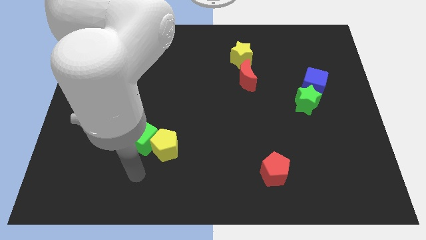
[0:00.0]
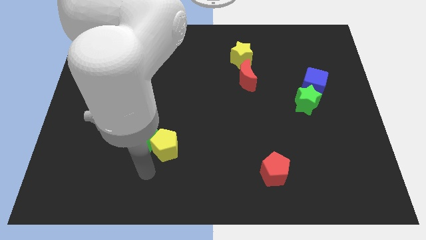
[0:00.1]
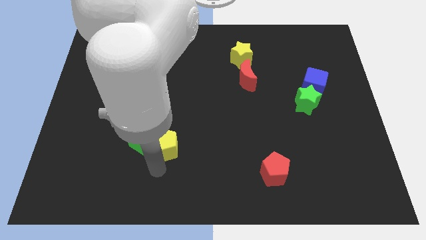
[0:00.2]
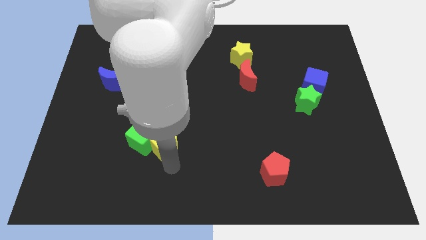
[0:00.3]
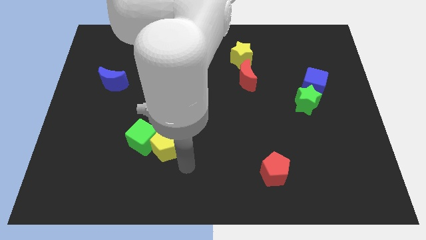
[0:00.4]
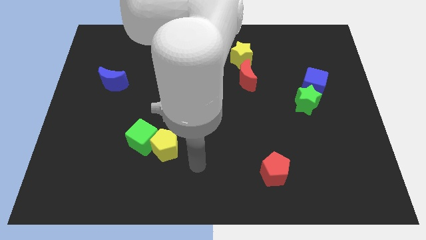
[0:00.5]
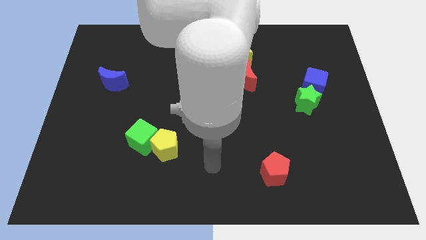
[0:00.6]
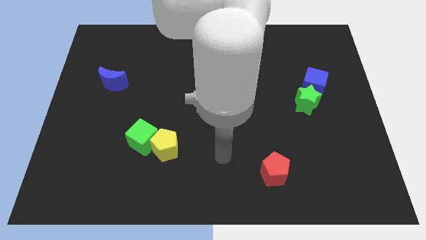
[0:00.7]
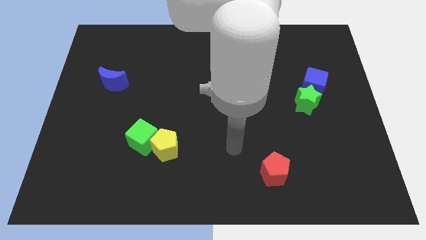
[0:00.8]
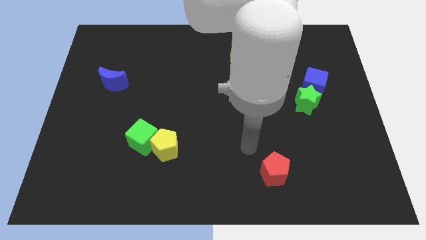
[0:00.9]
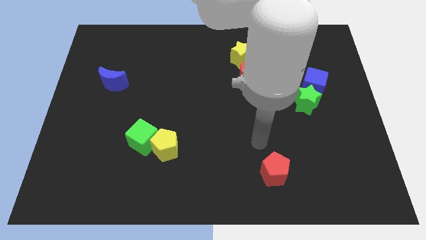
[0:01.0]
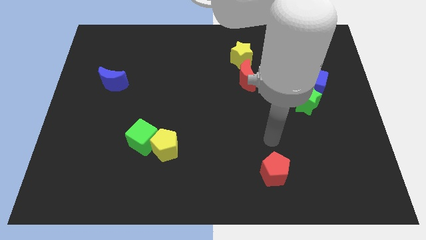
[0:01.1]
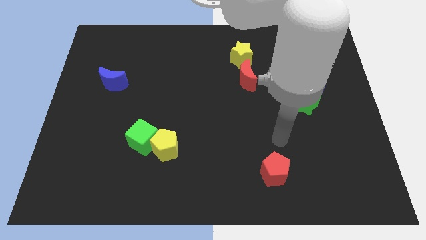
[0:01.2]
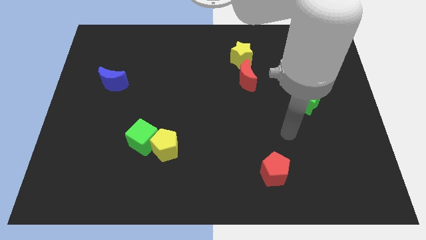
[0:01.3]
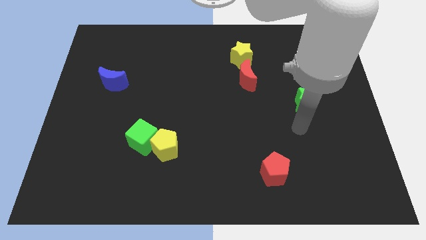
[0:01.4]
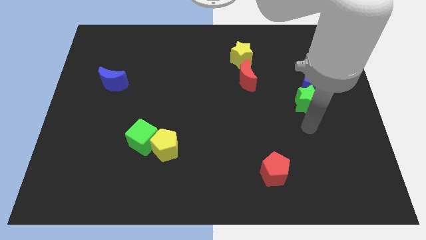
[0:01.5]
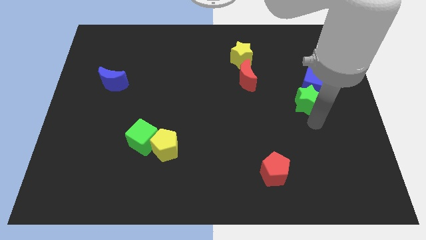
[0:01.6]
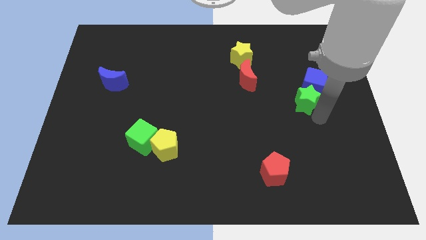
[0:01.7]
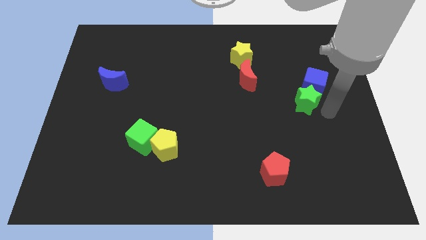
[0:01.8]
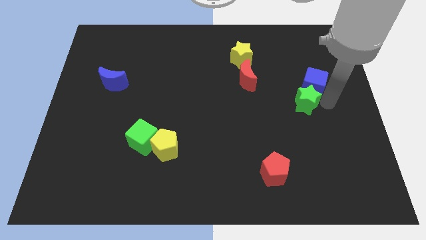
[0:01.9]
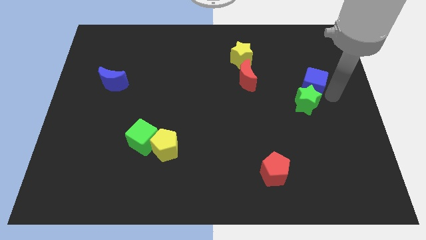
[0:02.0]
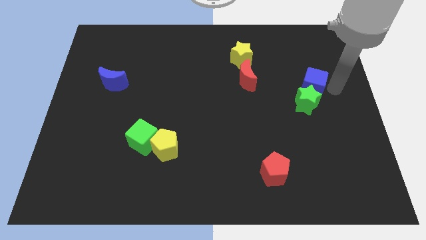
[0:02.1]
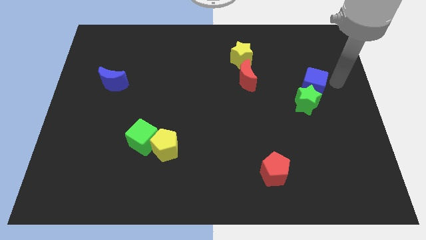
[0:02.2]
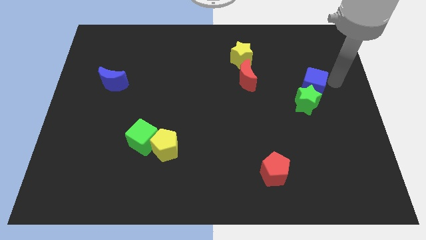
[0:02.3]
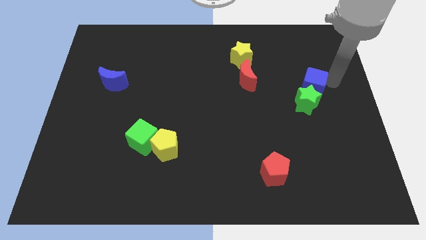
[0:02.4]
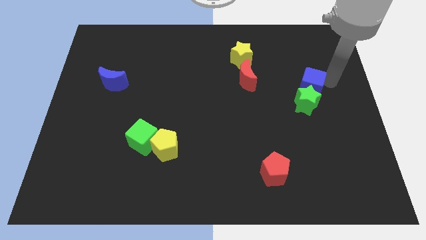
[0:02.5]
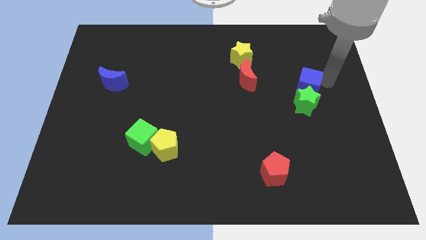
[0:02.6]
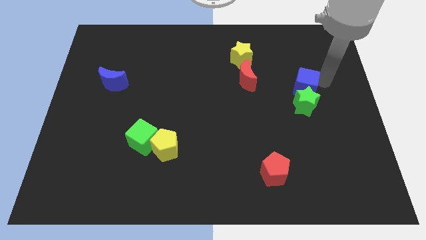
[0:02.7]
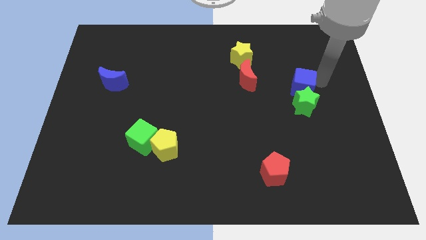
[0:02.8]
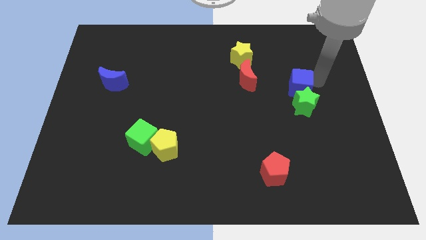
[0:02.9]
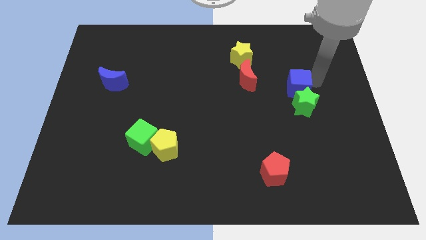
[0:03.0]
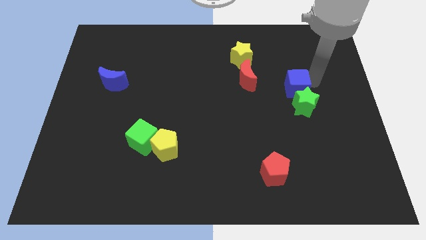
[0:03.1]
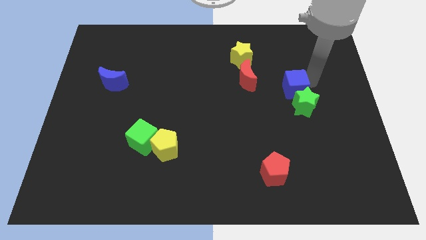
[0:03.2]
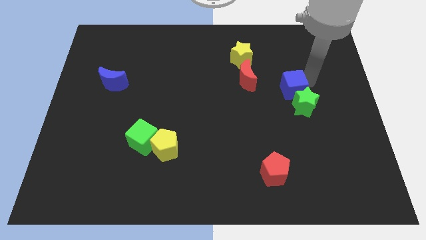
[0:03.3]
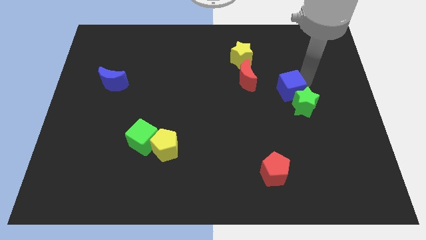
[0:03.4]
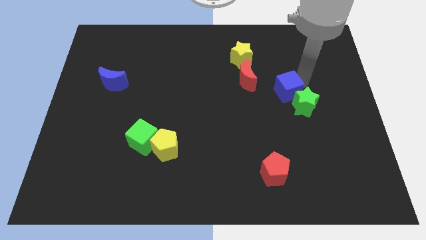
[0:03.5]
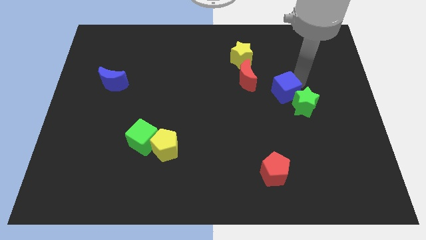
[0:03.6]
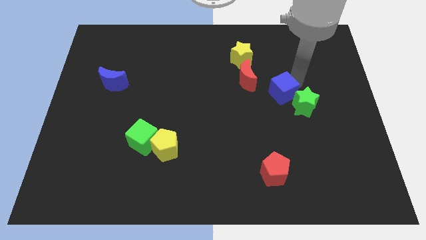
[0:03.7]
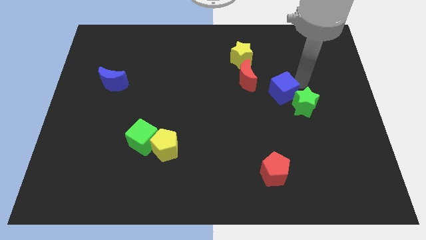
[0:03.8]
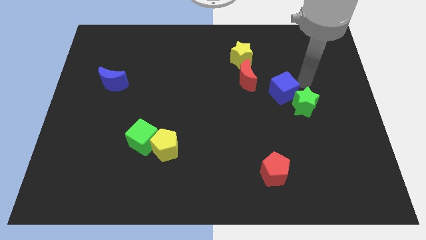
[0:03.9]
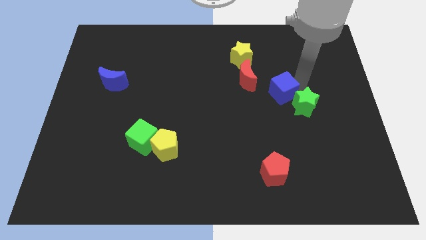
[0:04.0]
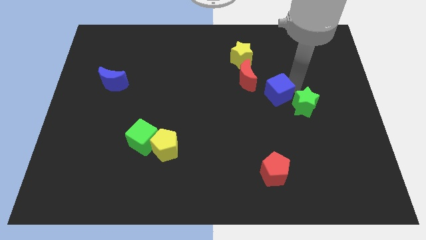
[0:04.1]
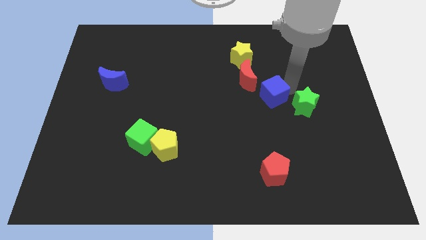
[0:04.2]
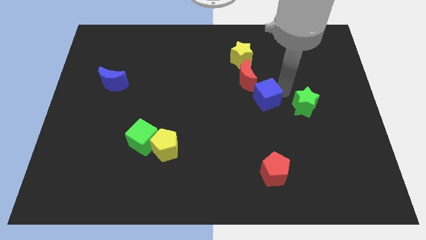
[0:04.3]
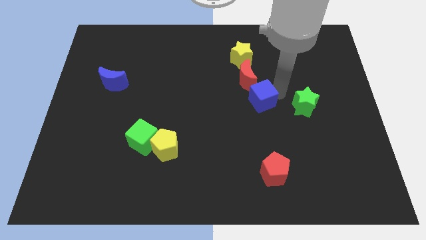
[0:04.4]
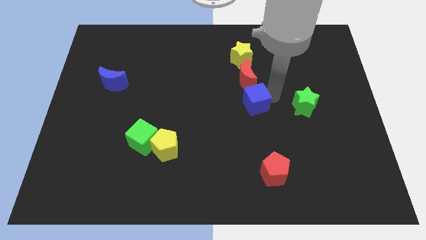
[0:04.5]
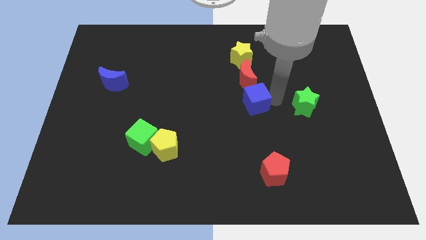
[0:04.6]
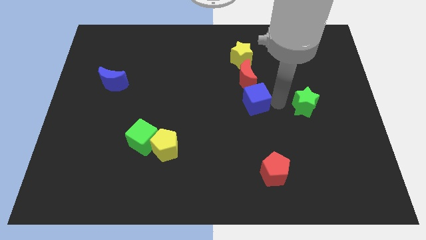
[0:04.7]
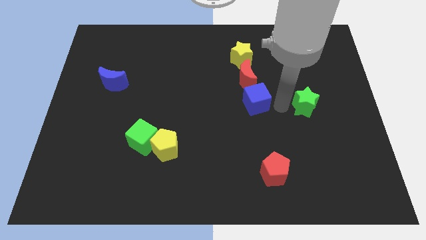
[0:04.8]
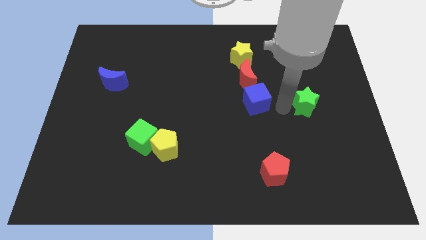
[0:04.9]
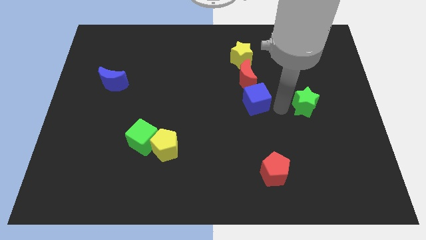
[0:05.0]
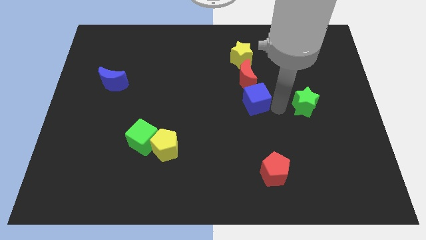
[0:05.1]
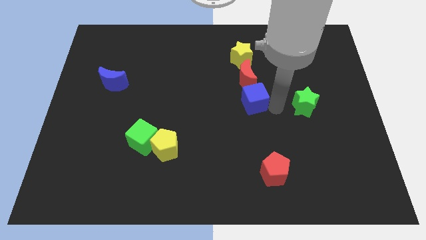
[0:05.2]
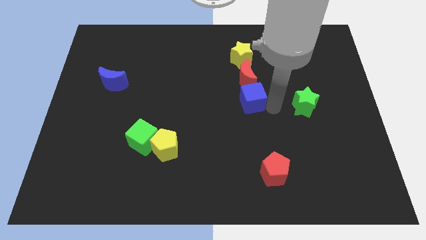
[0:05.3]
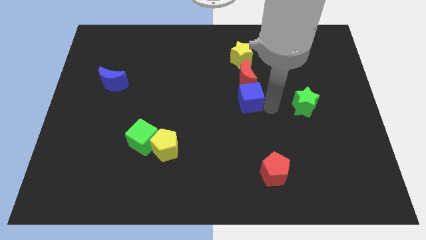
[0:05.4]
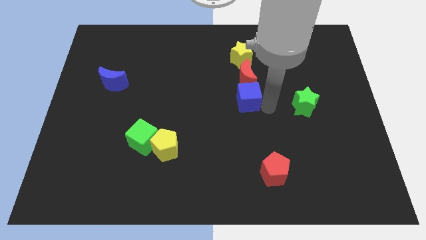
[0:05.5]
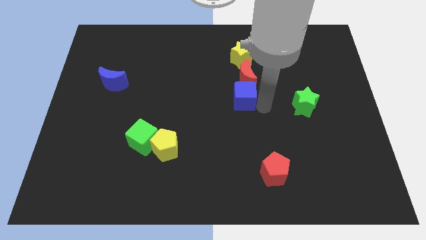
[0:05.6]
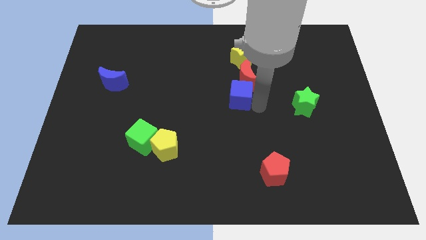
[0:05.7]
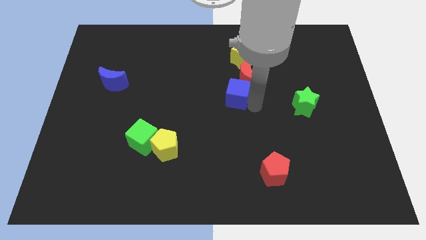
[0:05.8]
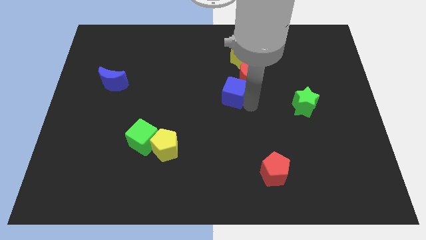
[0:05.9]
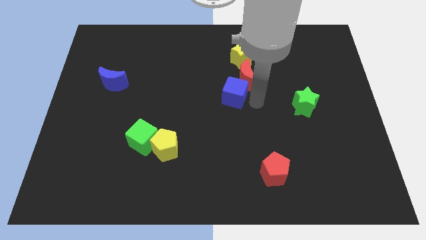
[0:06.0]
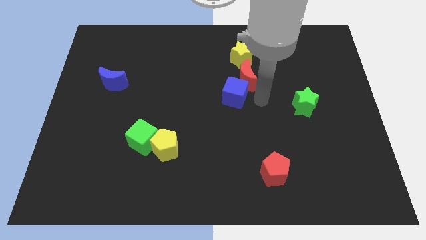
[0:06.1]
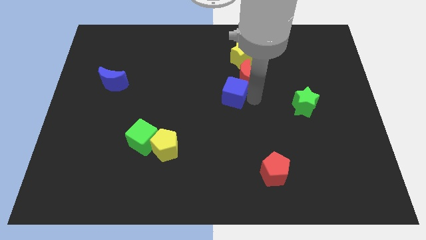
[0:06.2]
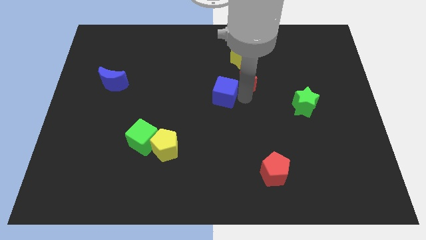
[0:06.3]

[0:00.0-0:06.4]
push the blue cube left

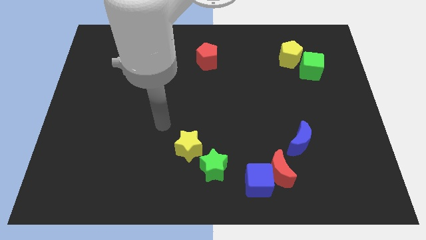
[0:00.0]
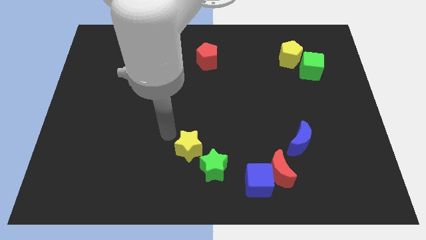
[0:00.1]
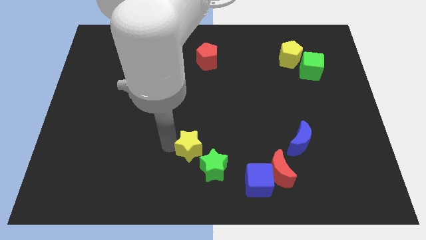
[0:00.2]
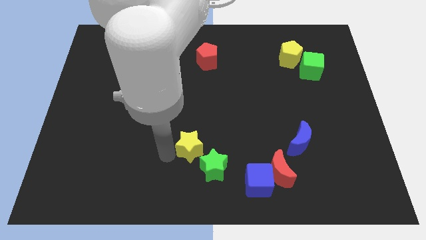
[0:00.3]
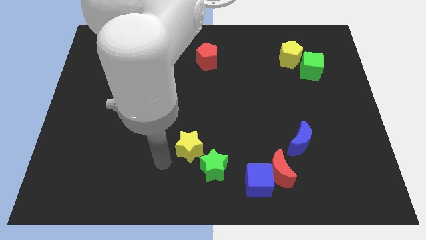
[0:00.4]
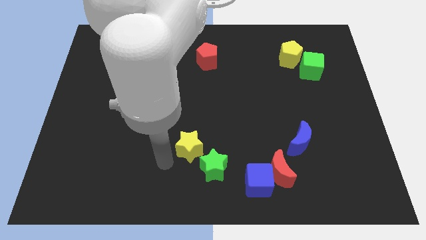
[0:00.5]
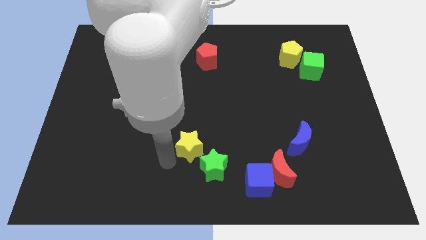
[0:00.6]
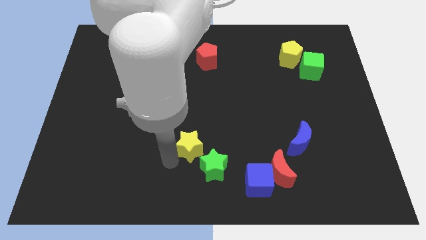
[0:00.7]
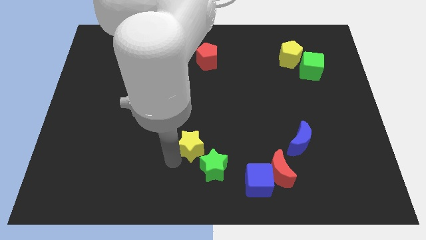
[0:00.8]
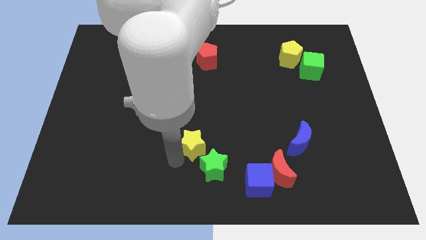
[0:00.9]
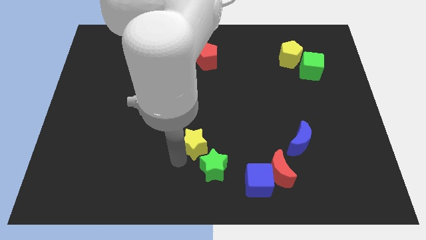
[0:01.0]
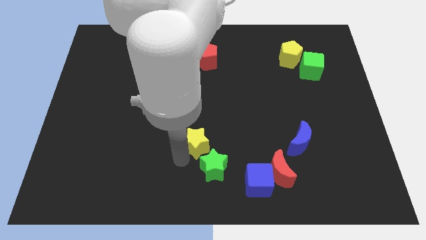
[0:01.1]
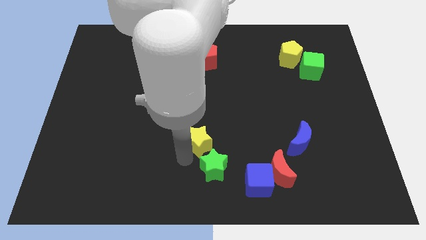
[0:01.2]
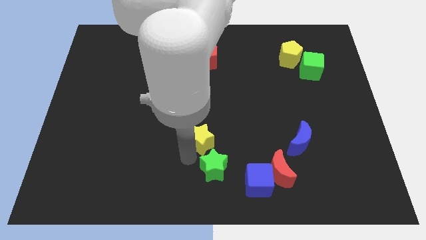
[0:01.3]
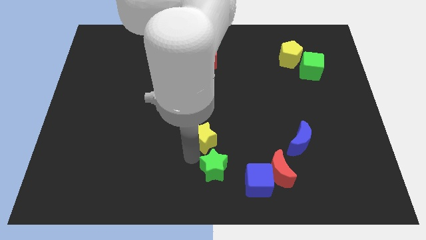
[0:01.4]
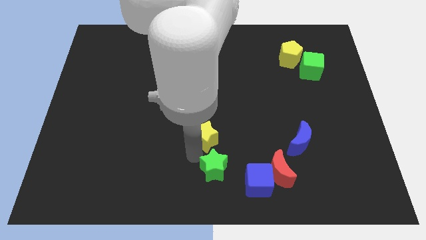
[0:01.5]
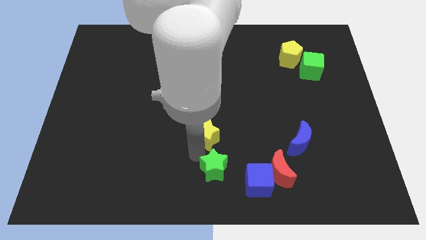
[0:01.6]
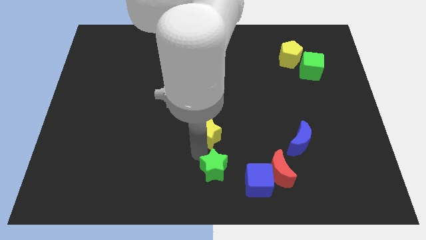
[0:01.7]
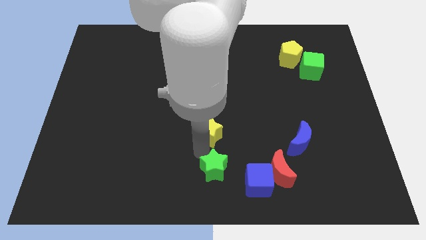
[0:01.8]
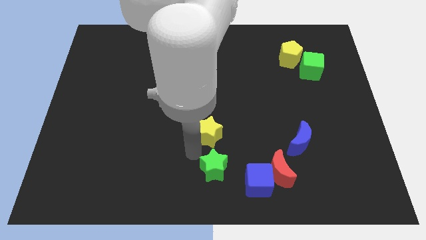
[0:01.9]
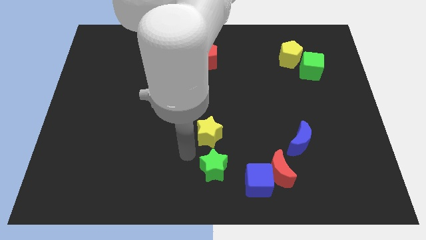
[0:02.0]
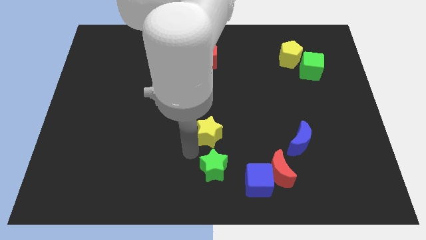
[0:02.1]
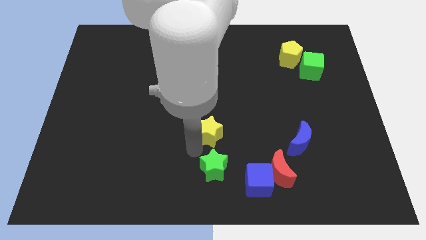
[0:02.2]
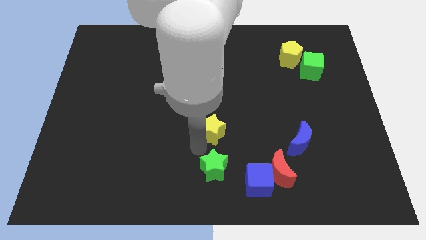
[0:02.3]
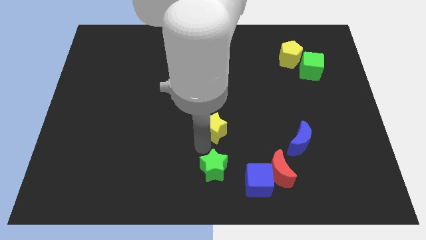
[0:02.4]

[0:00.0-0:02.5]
slide the yellow star diagonally up and right slightly
